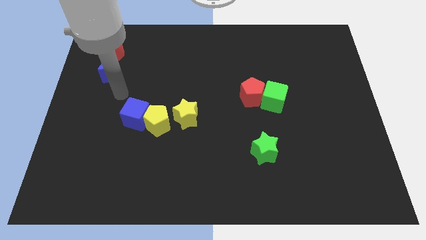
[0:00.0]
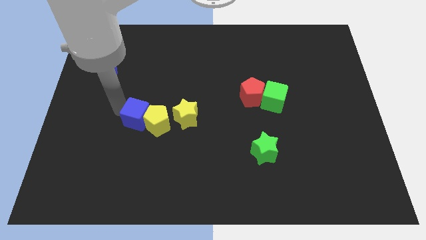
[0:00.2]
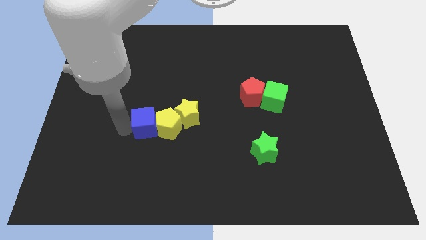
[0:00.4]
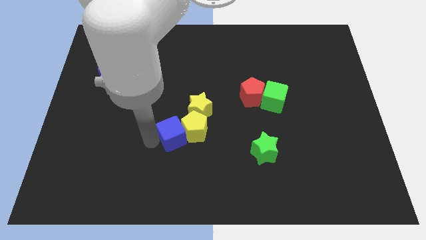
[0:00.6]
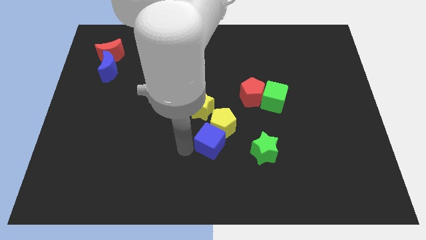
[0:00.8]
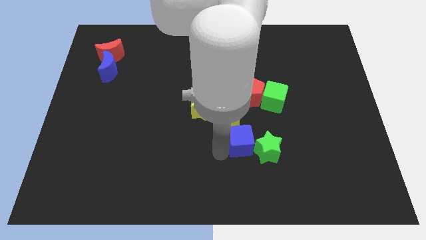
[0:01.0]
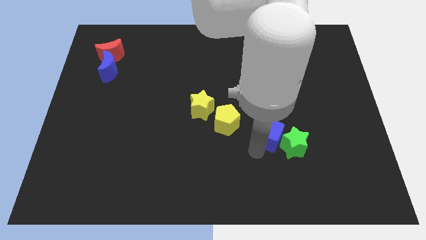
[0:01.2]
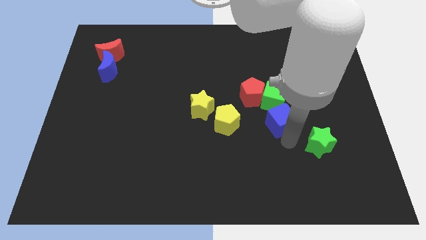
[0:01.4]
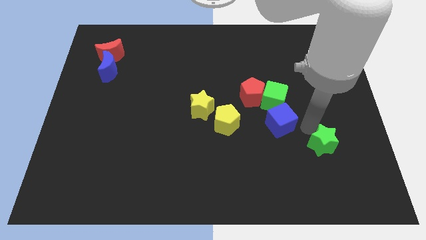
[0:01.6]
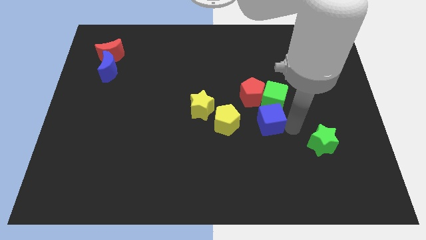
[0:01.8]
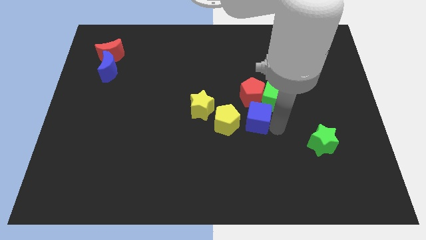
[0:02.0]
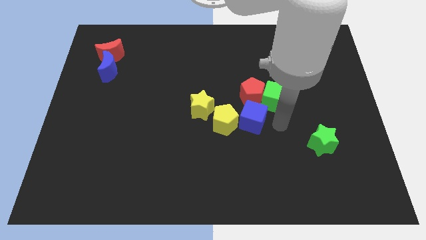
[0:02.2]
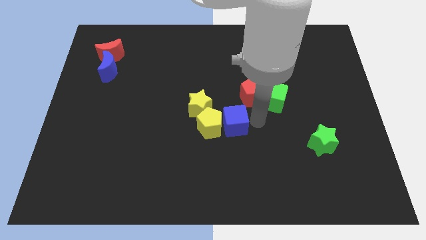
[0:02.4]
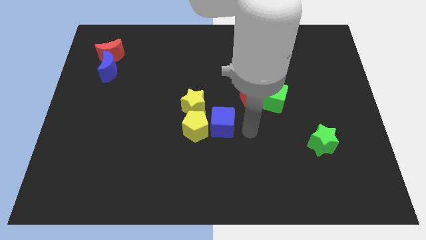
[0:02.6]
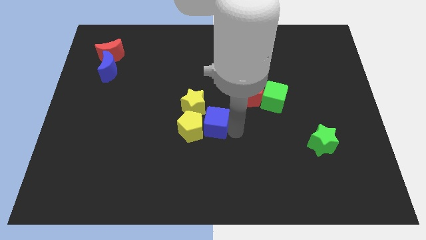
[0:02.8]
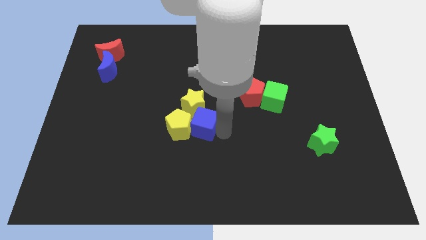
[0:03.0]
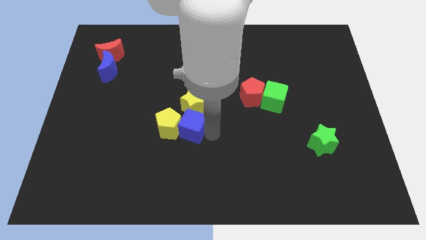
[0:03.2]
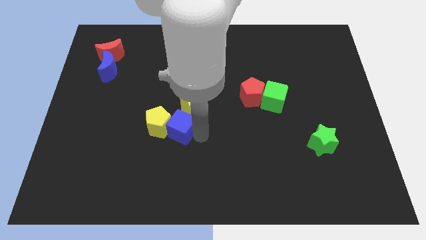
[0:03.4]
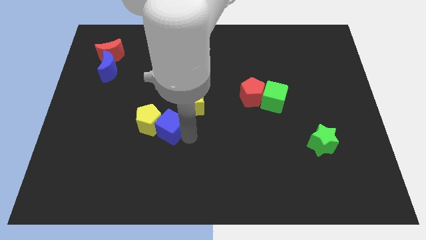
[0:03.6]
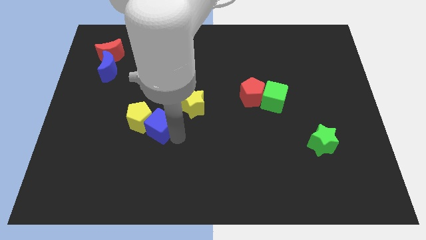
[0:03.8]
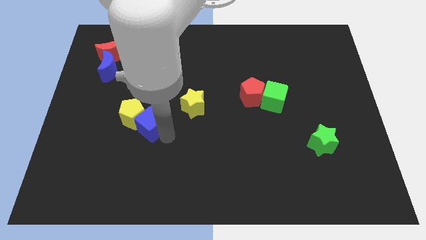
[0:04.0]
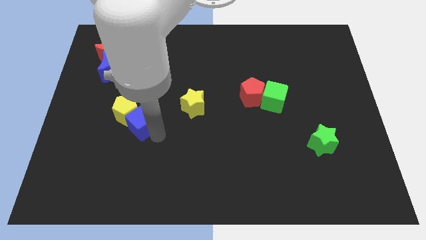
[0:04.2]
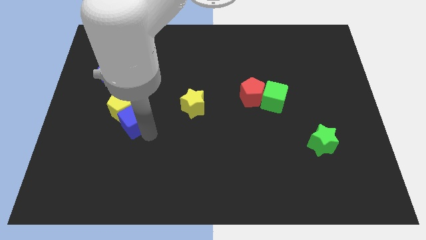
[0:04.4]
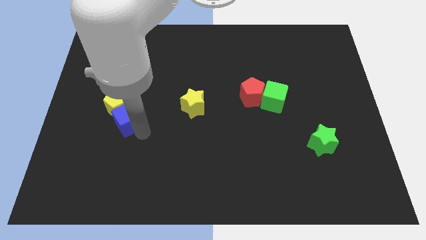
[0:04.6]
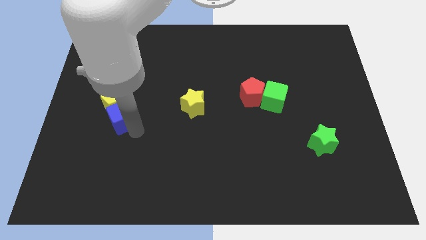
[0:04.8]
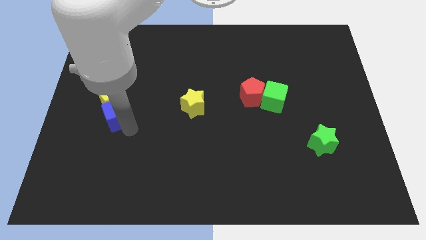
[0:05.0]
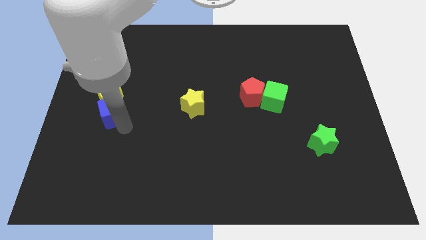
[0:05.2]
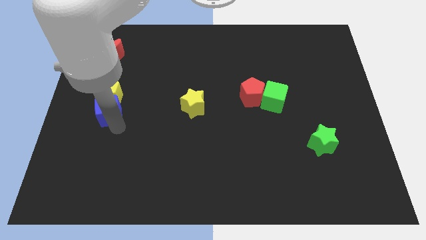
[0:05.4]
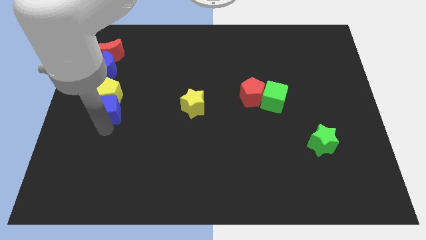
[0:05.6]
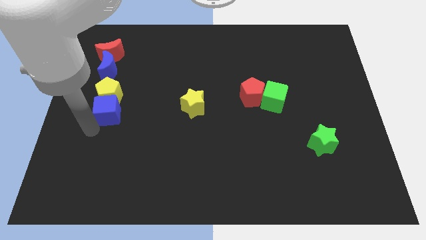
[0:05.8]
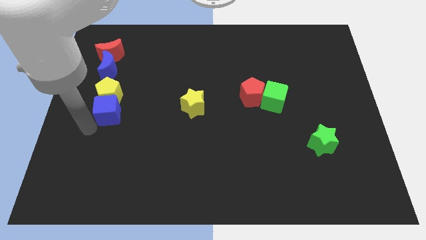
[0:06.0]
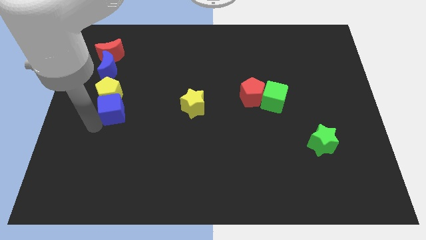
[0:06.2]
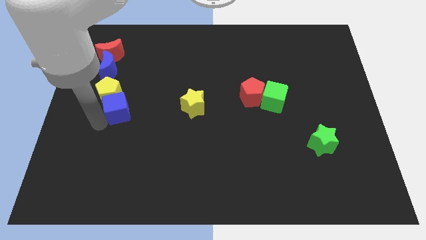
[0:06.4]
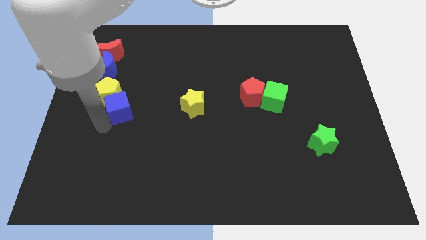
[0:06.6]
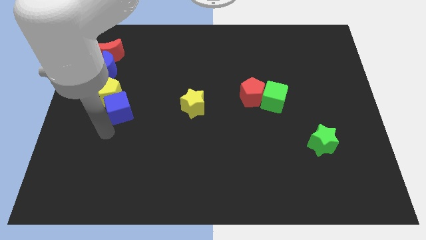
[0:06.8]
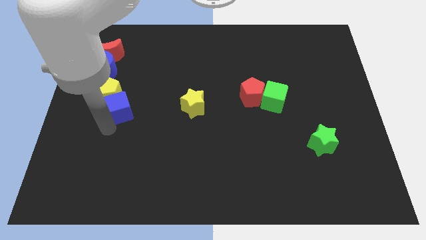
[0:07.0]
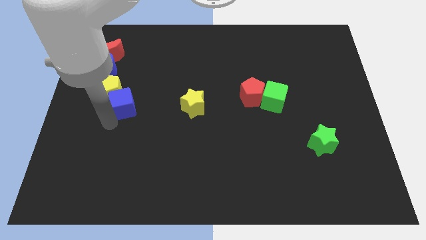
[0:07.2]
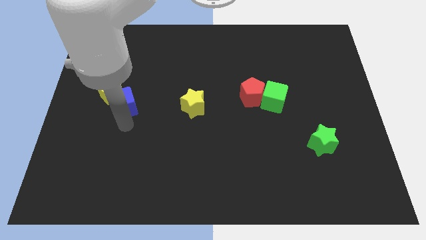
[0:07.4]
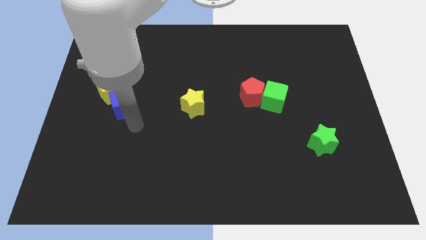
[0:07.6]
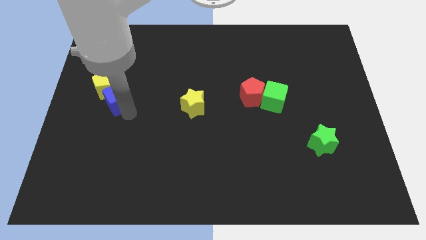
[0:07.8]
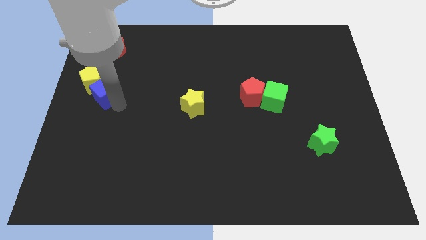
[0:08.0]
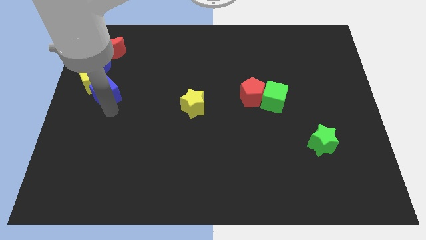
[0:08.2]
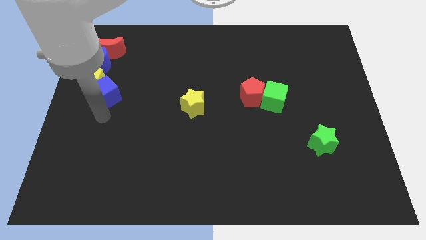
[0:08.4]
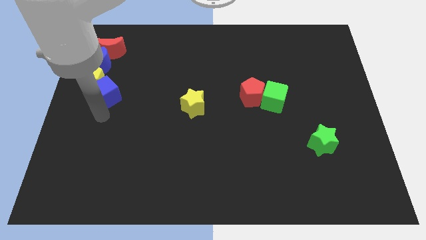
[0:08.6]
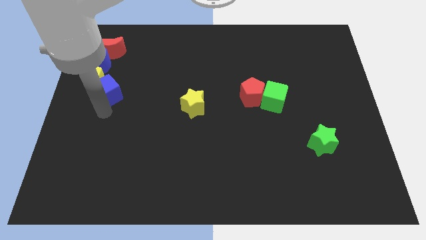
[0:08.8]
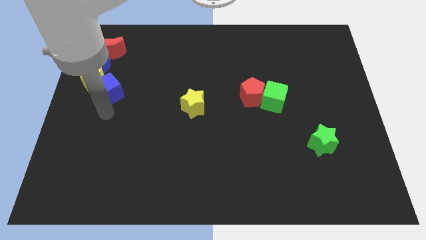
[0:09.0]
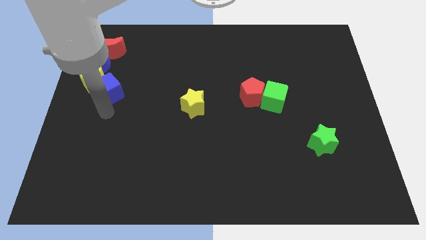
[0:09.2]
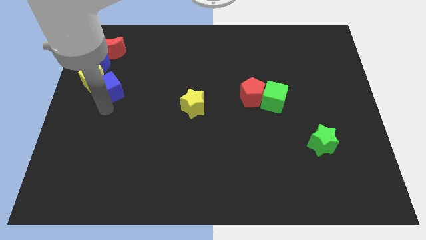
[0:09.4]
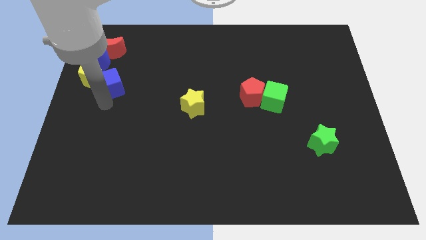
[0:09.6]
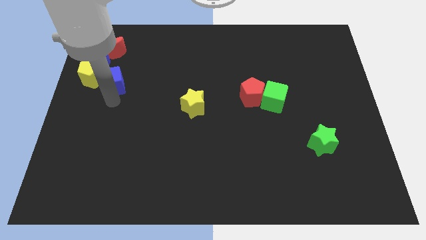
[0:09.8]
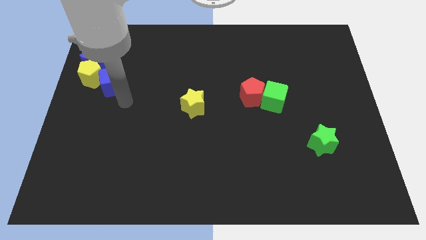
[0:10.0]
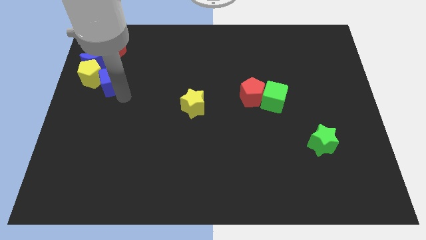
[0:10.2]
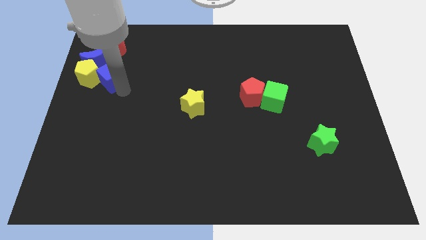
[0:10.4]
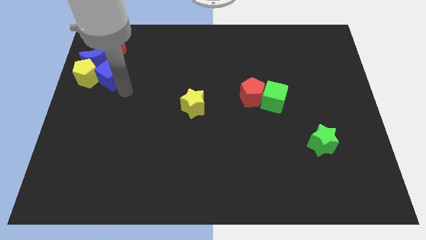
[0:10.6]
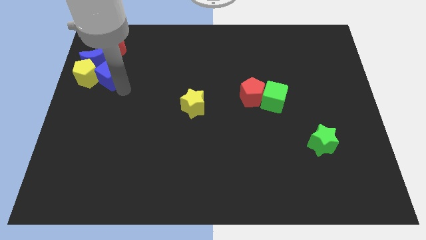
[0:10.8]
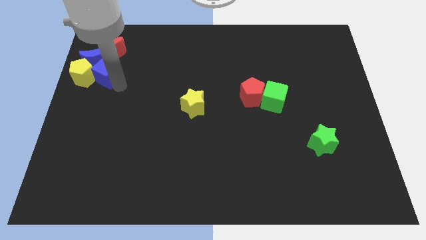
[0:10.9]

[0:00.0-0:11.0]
slide the blue cube close to the blue moon

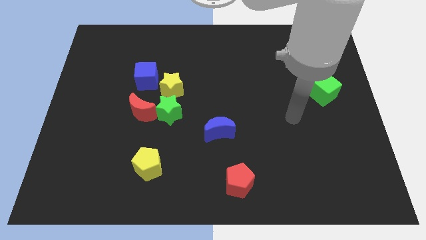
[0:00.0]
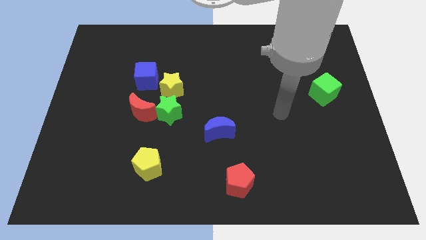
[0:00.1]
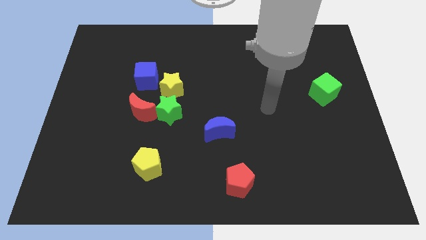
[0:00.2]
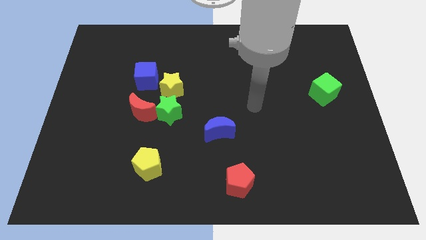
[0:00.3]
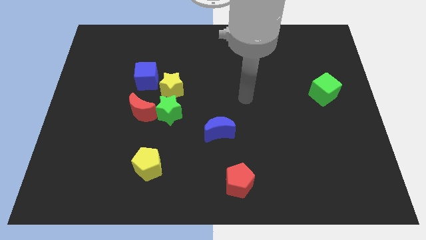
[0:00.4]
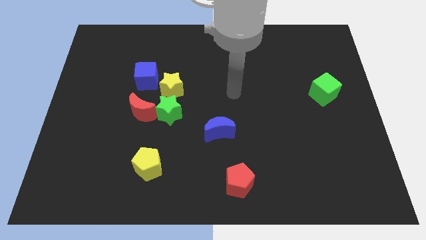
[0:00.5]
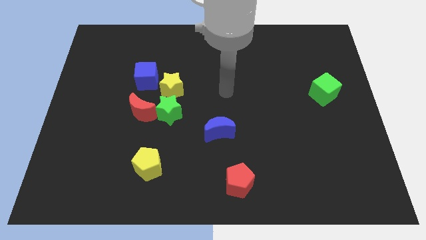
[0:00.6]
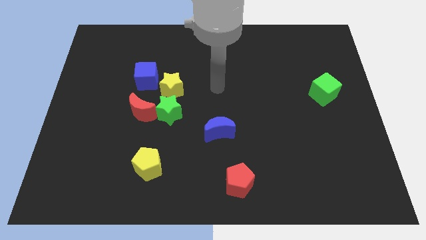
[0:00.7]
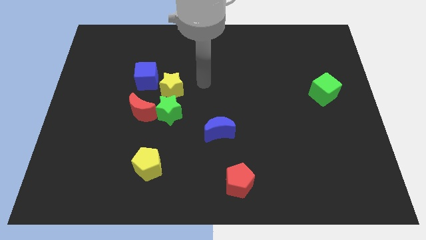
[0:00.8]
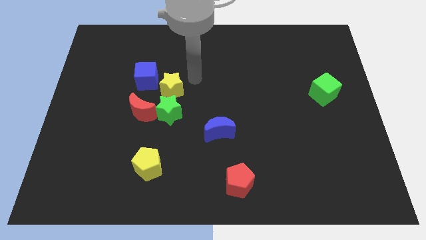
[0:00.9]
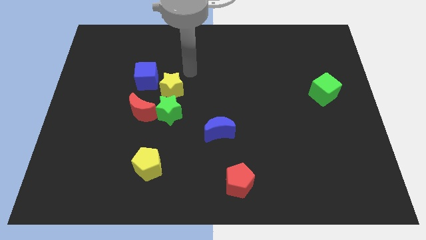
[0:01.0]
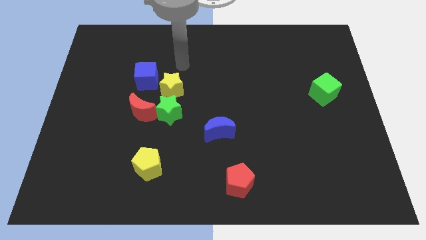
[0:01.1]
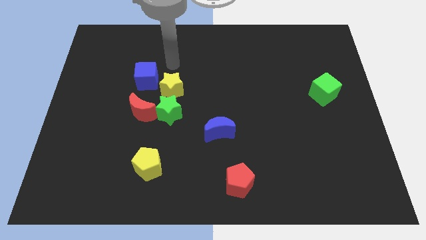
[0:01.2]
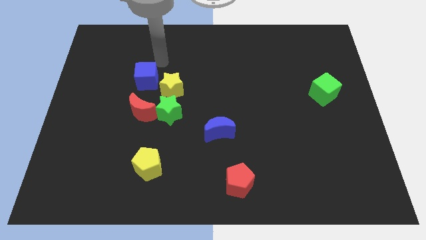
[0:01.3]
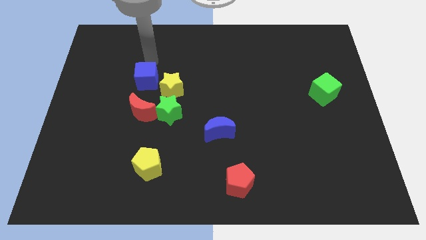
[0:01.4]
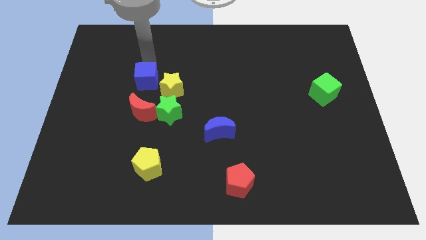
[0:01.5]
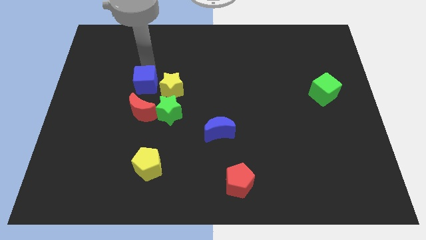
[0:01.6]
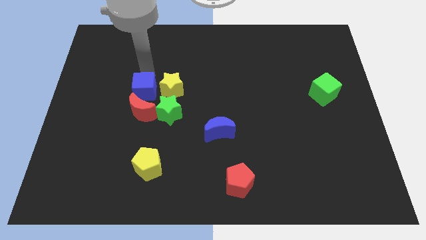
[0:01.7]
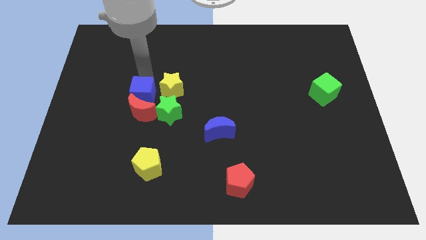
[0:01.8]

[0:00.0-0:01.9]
put the blue cube close to the red moon

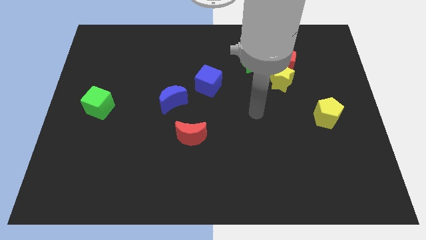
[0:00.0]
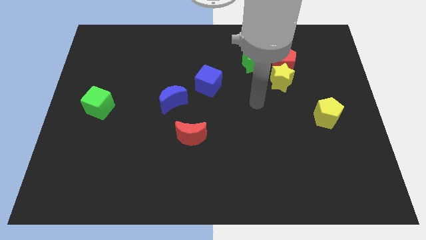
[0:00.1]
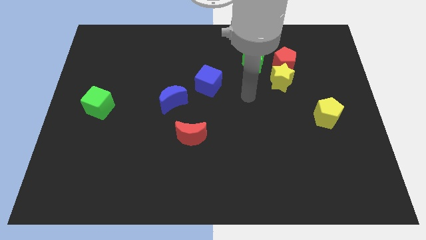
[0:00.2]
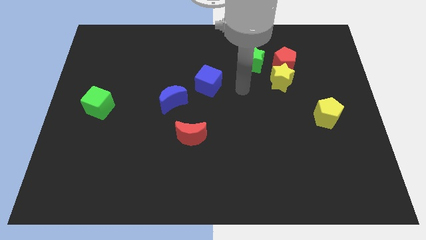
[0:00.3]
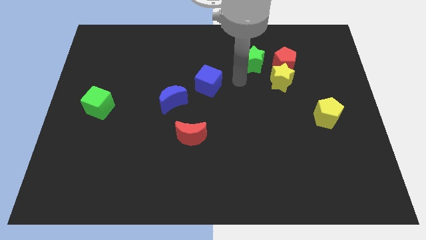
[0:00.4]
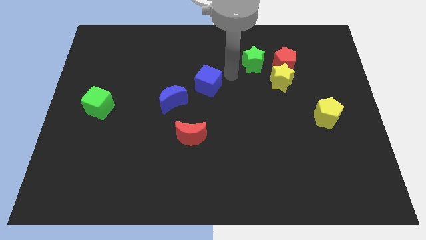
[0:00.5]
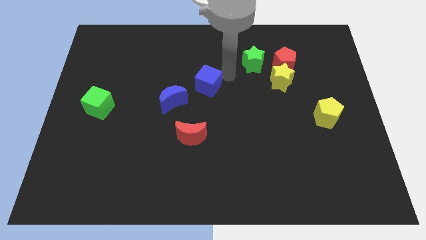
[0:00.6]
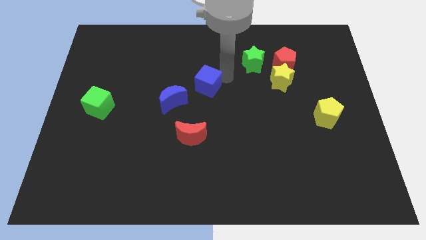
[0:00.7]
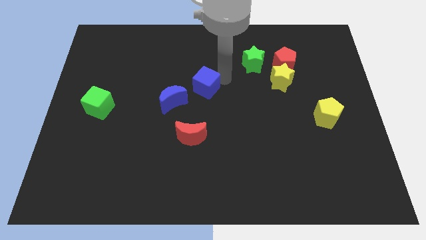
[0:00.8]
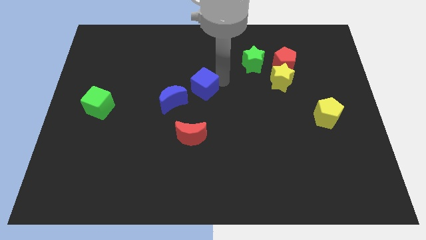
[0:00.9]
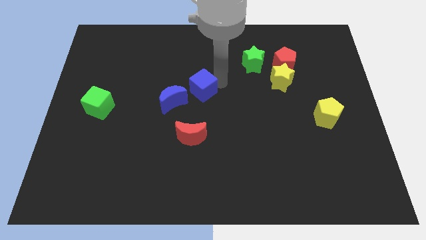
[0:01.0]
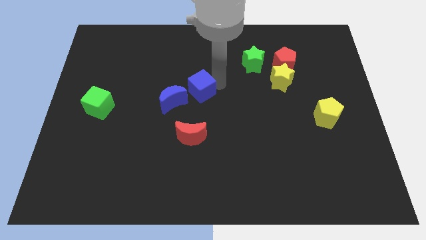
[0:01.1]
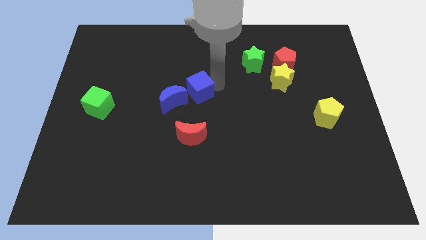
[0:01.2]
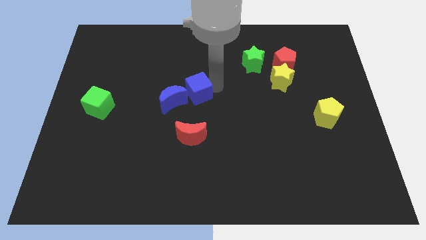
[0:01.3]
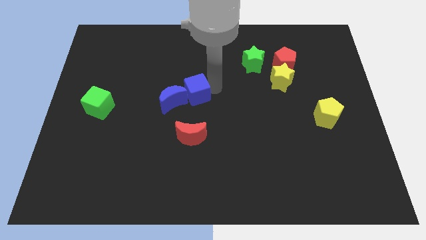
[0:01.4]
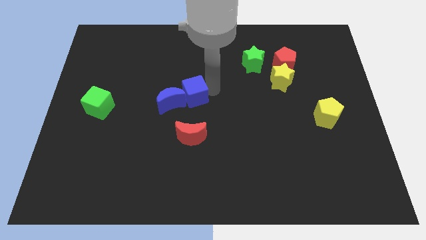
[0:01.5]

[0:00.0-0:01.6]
slide the blue cube to the blue moon
